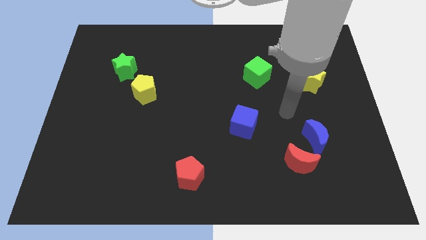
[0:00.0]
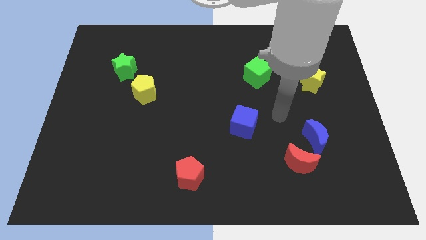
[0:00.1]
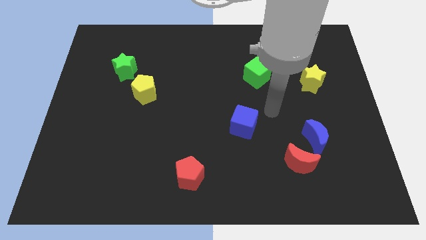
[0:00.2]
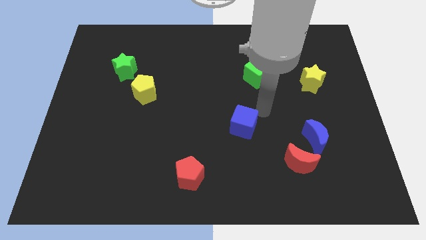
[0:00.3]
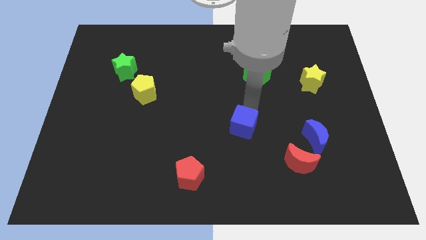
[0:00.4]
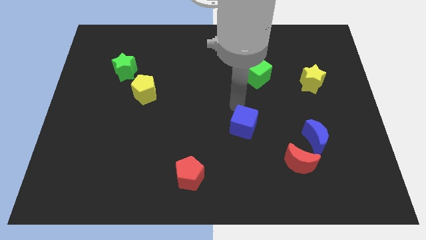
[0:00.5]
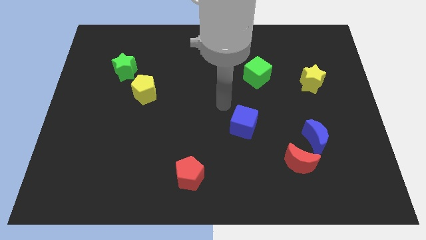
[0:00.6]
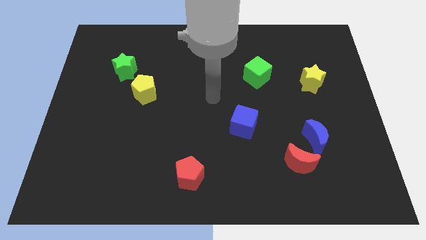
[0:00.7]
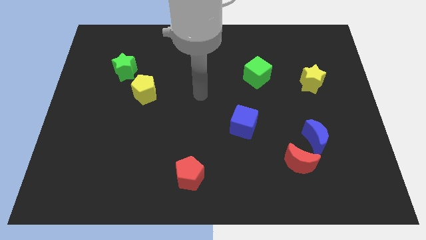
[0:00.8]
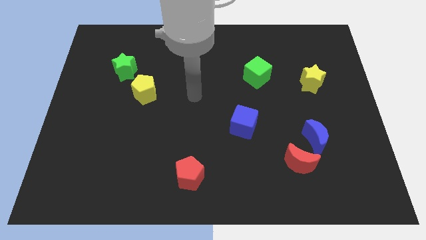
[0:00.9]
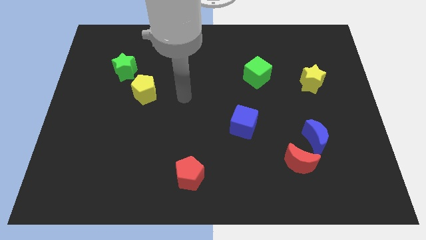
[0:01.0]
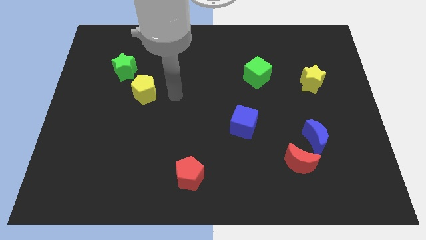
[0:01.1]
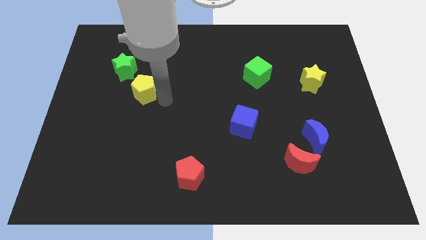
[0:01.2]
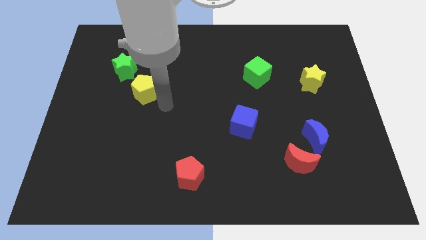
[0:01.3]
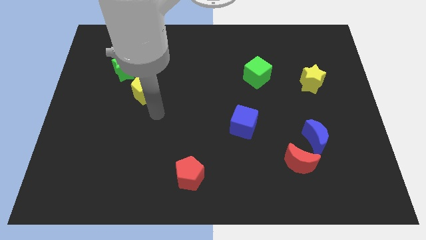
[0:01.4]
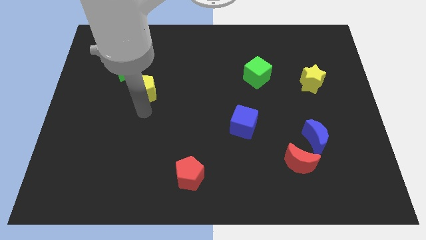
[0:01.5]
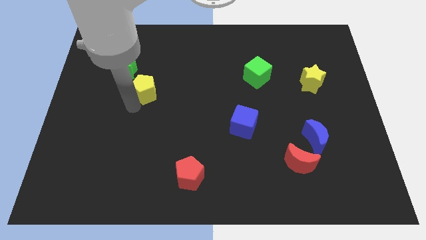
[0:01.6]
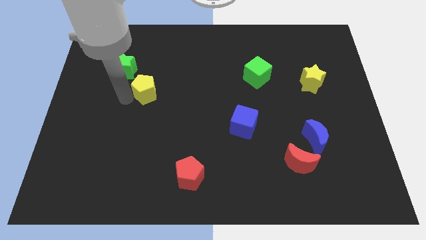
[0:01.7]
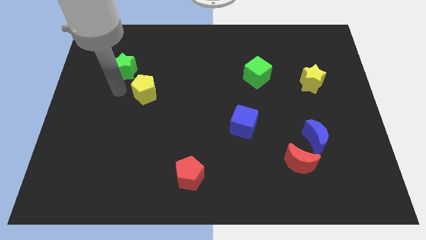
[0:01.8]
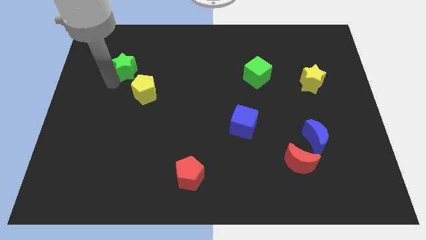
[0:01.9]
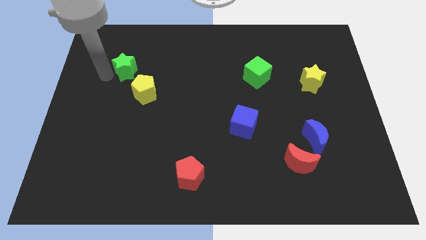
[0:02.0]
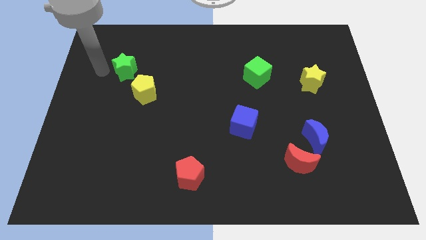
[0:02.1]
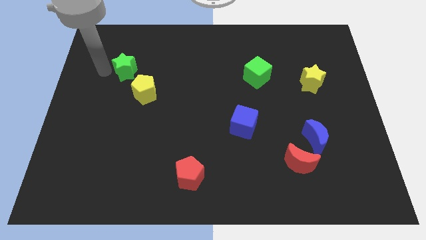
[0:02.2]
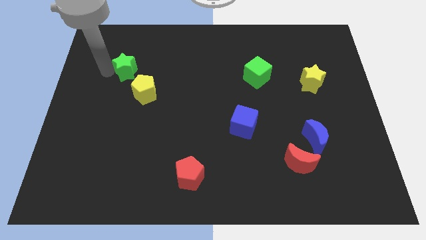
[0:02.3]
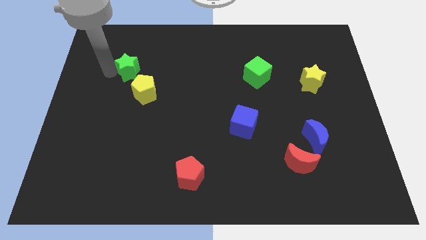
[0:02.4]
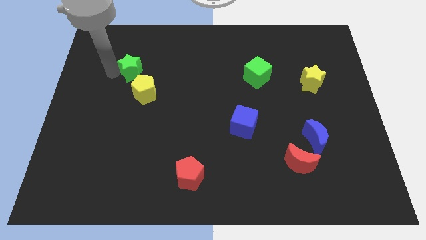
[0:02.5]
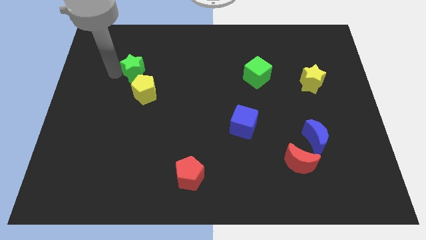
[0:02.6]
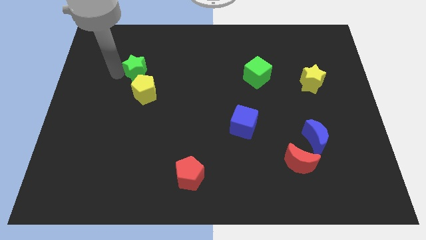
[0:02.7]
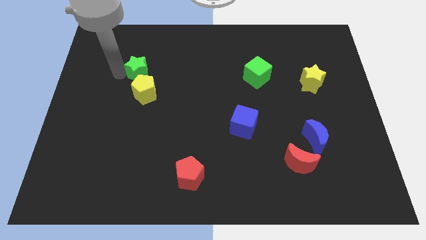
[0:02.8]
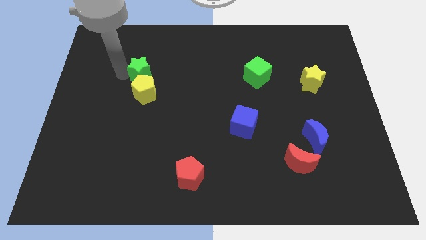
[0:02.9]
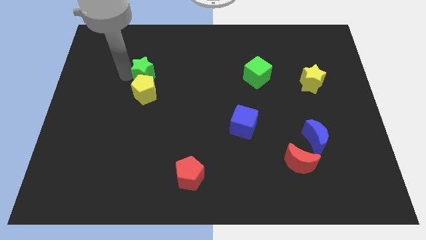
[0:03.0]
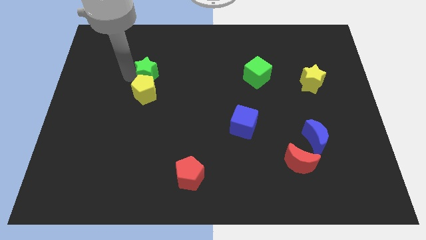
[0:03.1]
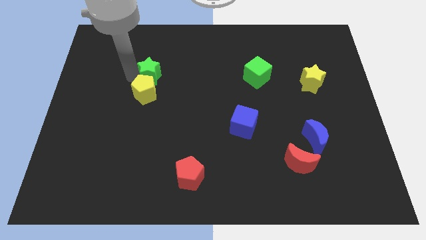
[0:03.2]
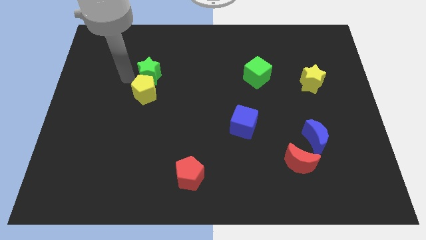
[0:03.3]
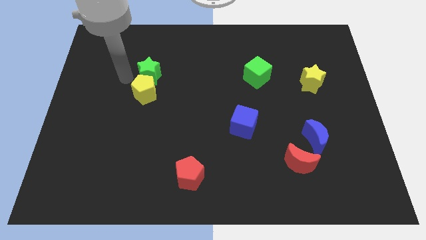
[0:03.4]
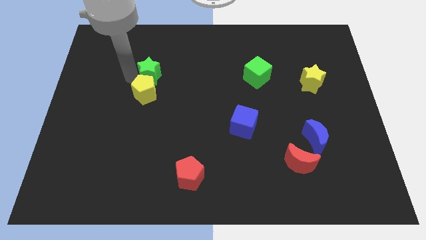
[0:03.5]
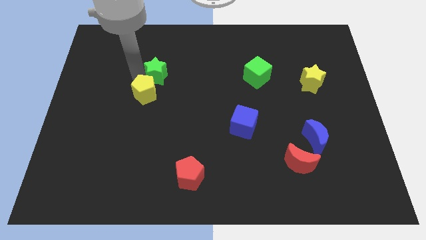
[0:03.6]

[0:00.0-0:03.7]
slide the green star to the right somewhat

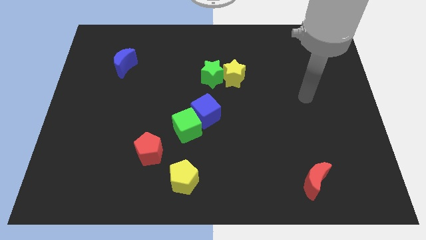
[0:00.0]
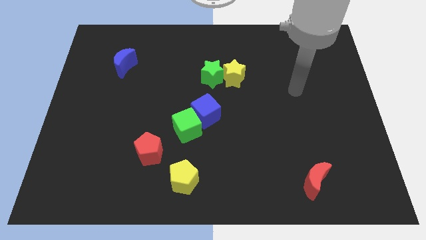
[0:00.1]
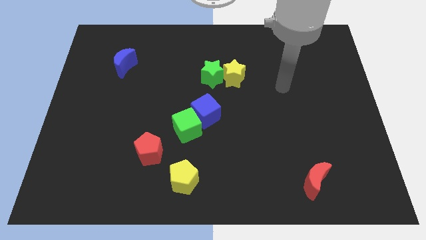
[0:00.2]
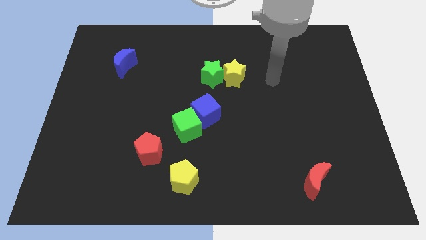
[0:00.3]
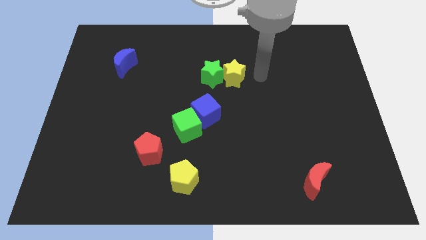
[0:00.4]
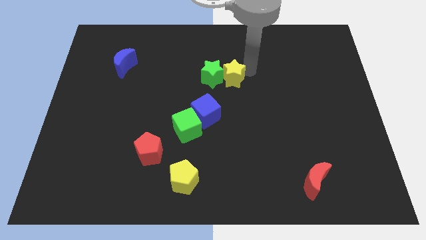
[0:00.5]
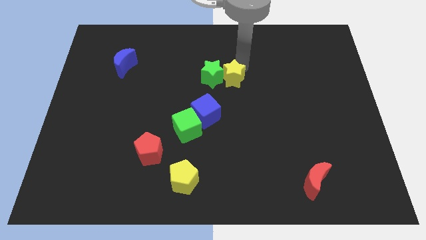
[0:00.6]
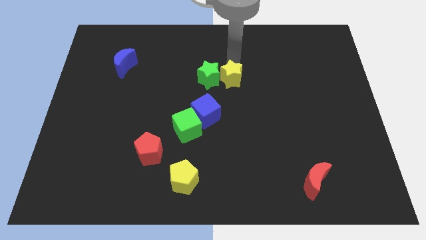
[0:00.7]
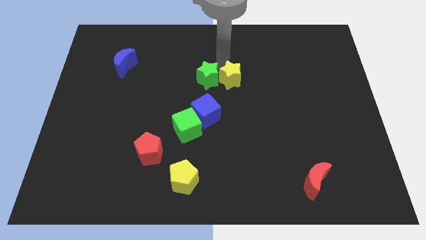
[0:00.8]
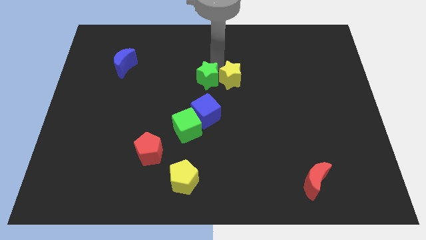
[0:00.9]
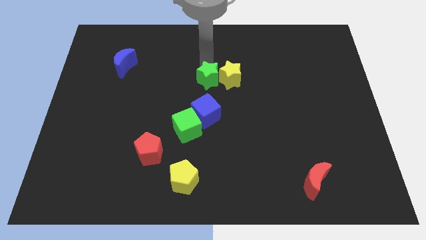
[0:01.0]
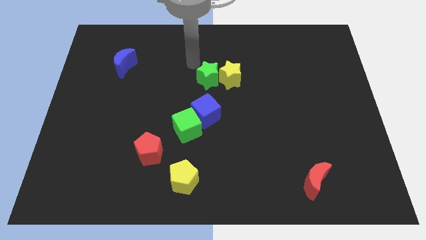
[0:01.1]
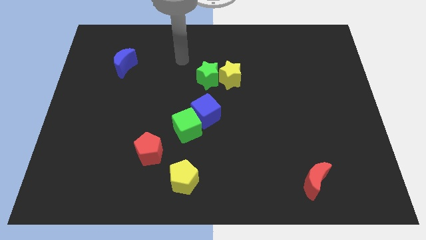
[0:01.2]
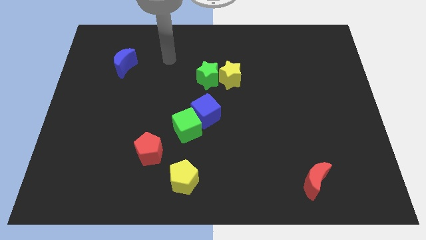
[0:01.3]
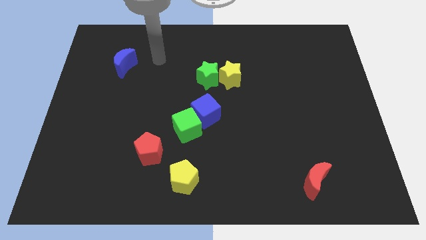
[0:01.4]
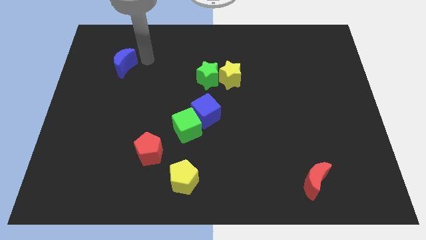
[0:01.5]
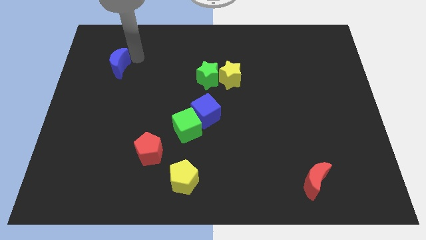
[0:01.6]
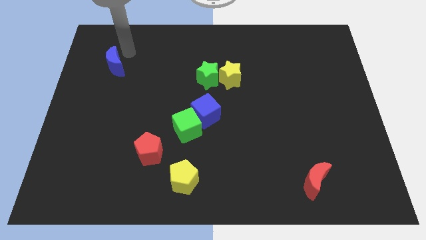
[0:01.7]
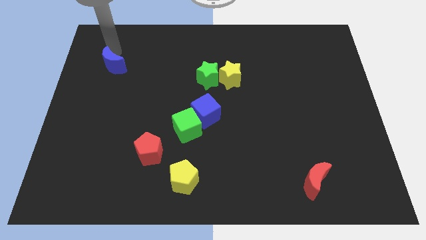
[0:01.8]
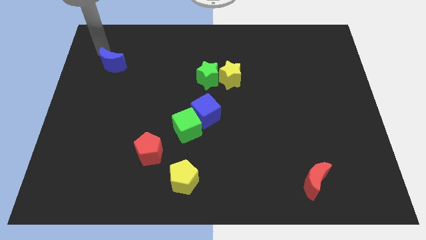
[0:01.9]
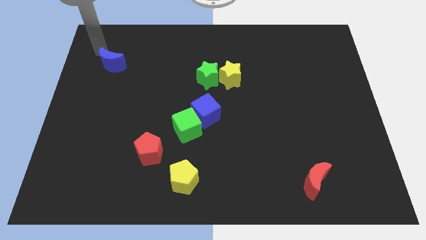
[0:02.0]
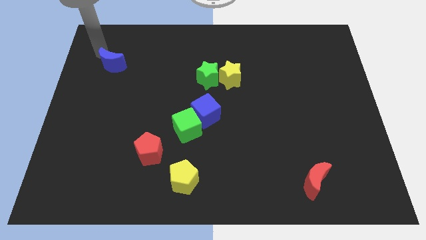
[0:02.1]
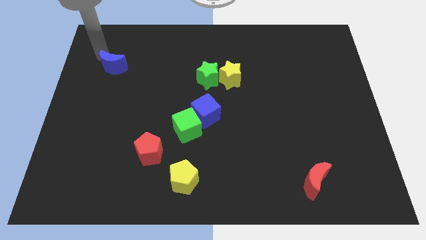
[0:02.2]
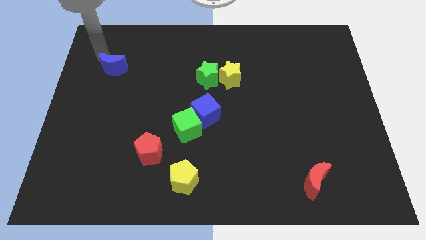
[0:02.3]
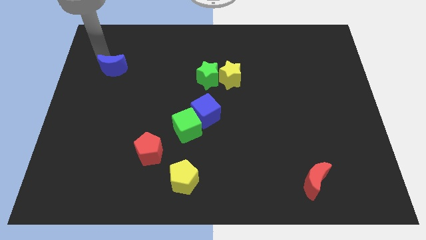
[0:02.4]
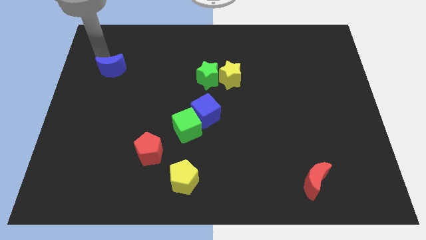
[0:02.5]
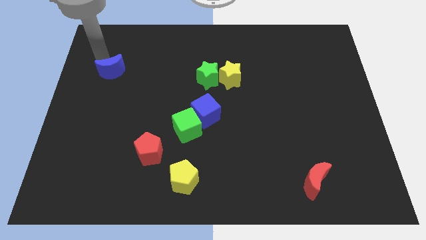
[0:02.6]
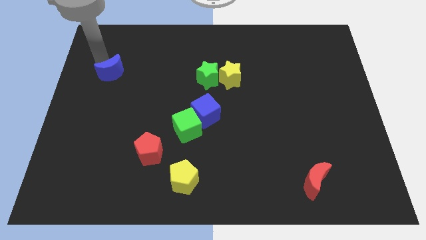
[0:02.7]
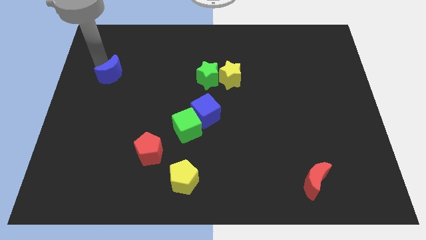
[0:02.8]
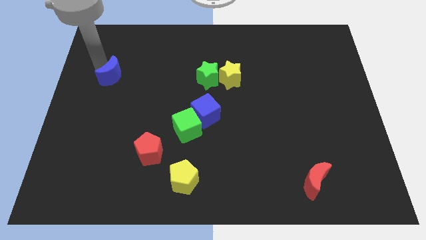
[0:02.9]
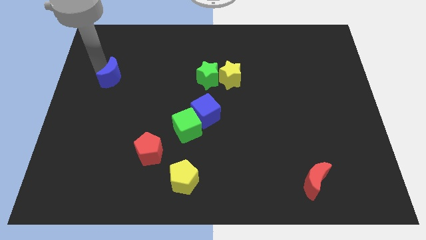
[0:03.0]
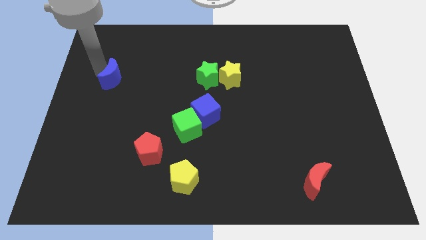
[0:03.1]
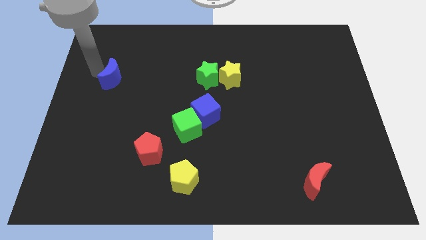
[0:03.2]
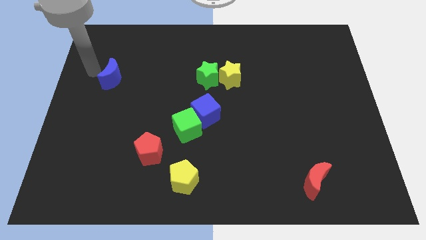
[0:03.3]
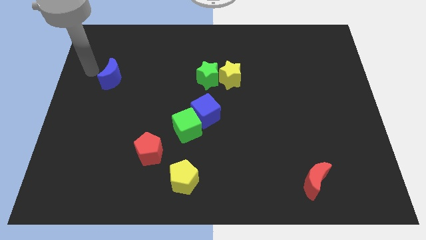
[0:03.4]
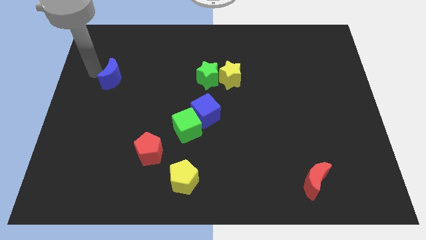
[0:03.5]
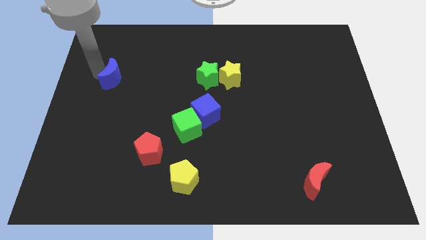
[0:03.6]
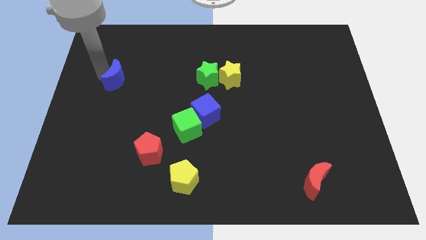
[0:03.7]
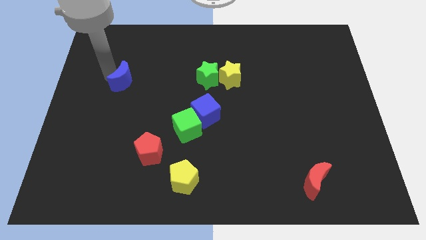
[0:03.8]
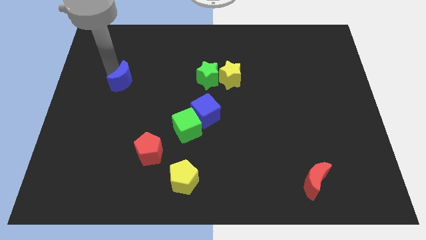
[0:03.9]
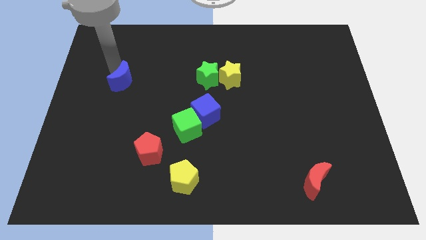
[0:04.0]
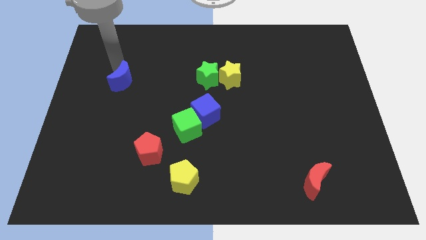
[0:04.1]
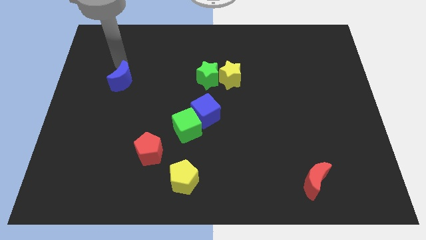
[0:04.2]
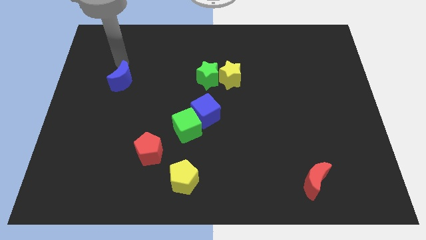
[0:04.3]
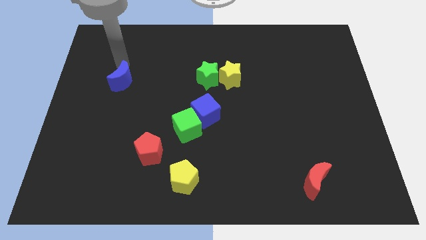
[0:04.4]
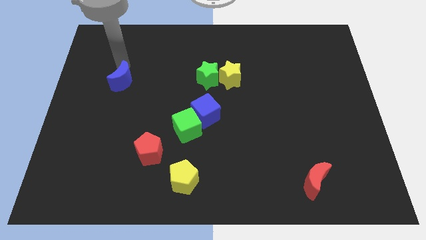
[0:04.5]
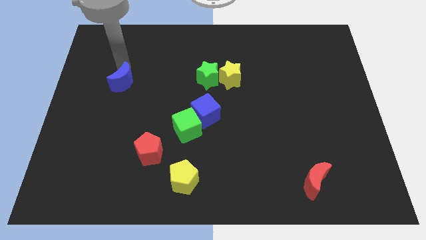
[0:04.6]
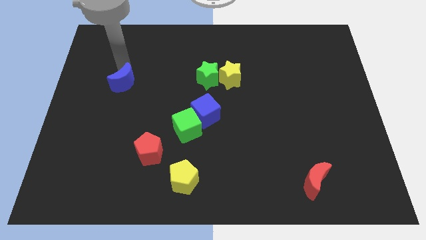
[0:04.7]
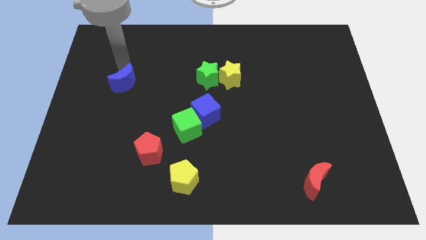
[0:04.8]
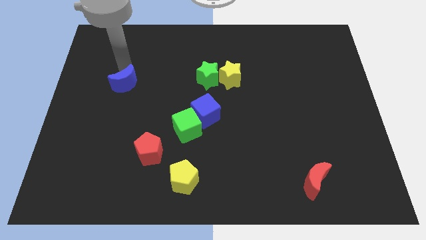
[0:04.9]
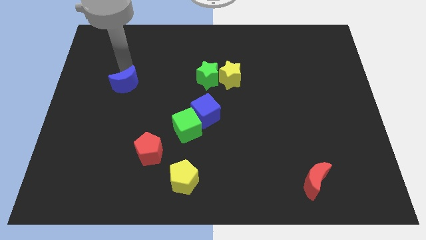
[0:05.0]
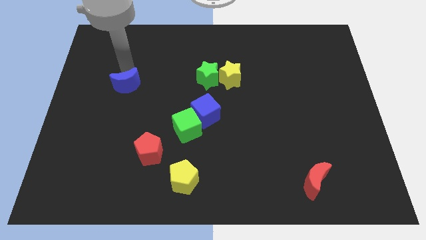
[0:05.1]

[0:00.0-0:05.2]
slide the blue moon downwards a bit
